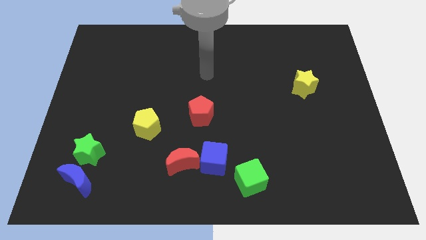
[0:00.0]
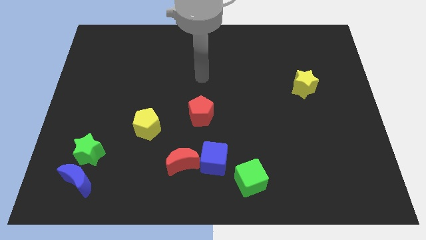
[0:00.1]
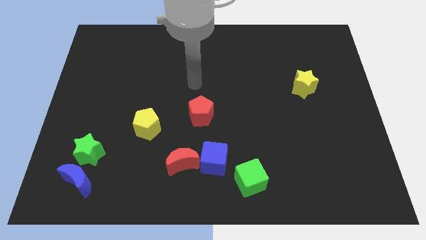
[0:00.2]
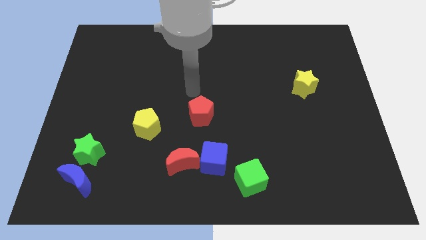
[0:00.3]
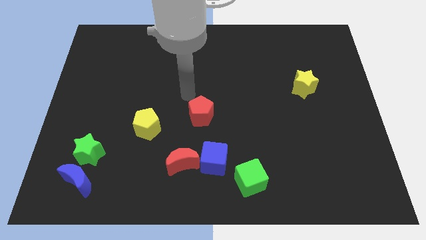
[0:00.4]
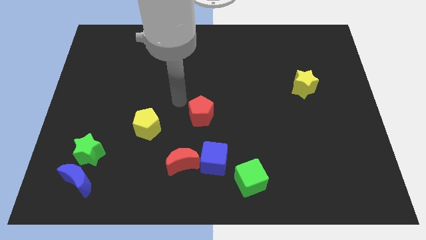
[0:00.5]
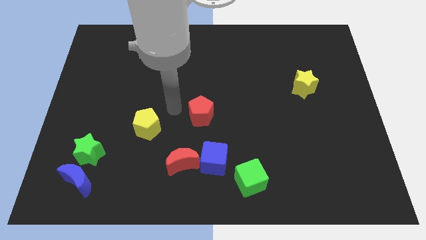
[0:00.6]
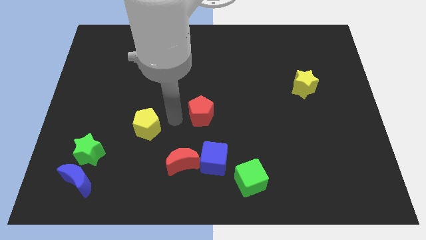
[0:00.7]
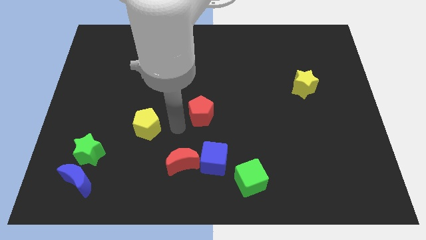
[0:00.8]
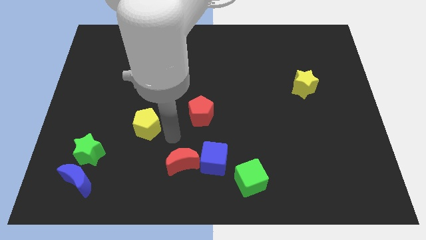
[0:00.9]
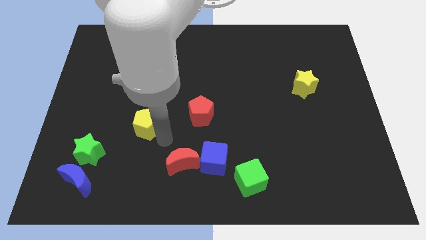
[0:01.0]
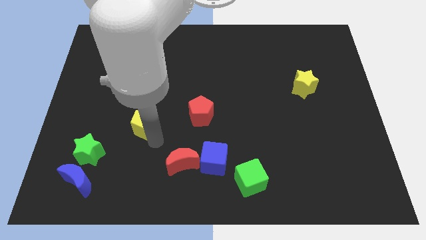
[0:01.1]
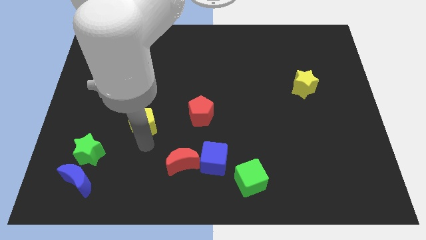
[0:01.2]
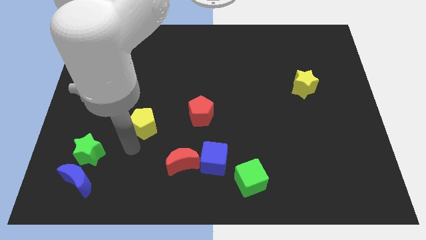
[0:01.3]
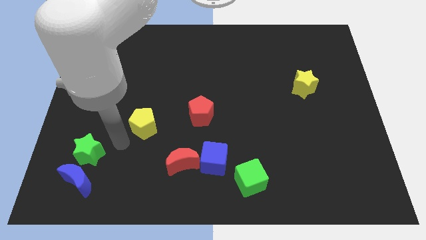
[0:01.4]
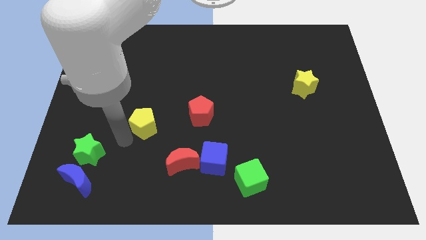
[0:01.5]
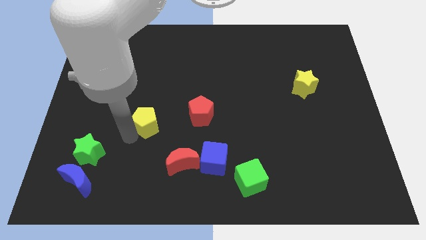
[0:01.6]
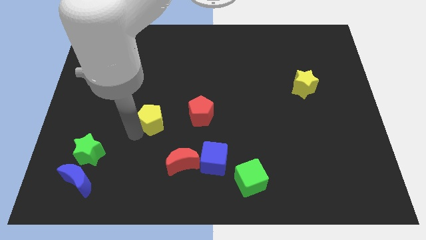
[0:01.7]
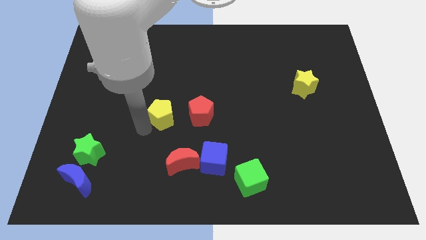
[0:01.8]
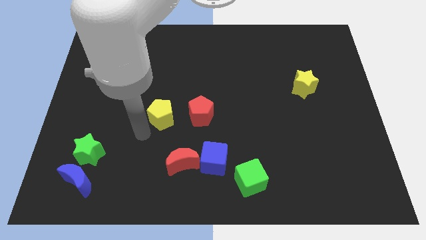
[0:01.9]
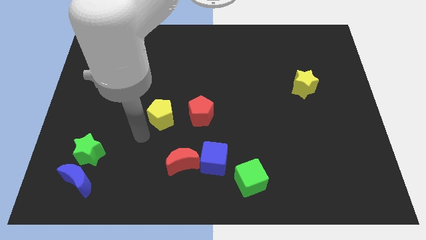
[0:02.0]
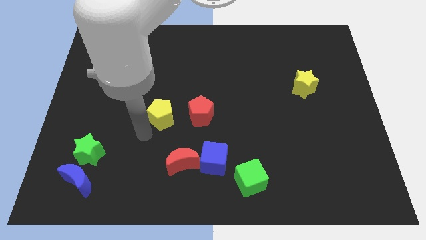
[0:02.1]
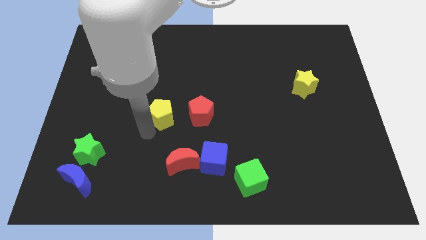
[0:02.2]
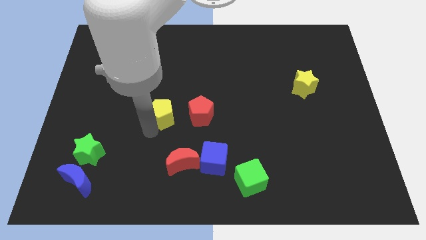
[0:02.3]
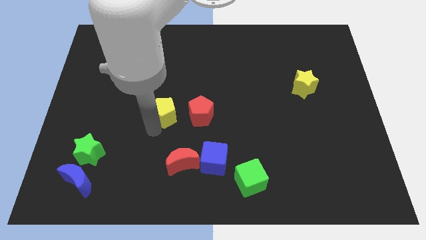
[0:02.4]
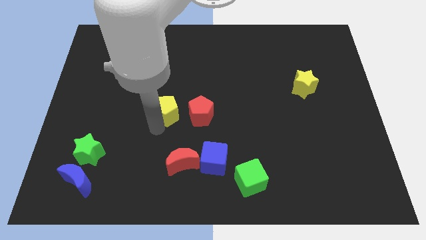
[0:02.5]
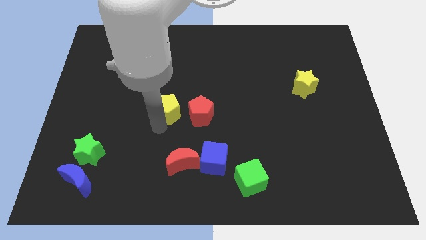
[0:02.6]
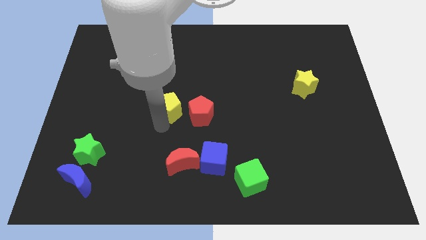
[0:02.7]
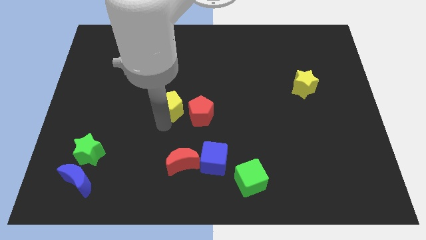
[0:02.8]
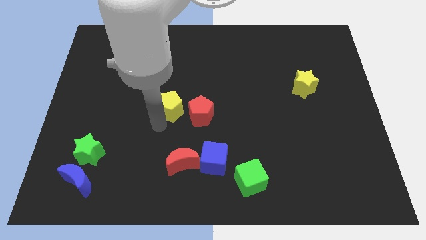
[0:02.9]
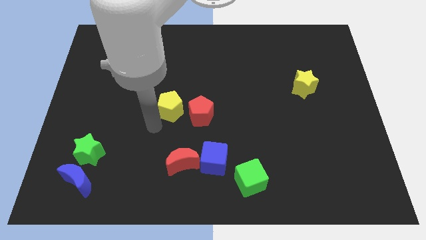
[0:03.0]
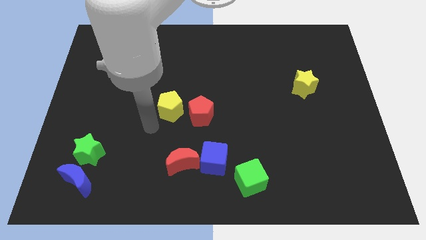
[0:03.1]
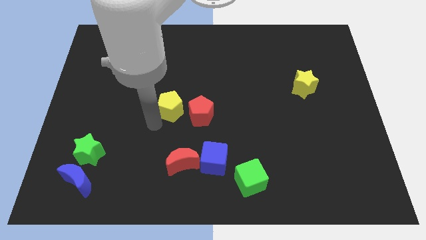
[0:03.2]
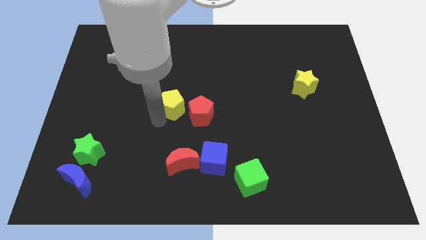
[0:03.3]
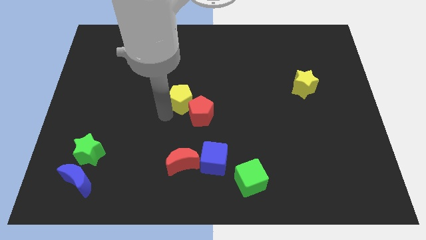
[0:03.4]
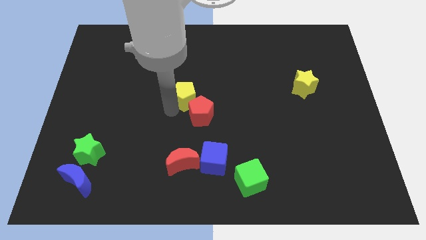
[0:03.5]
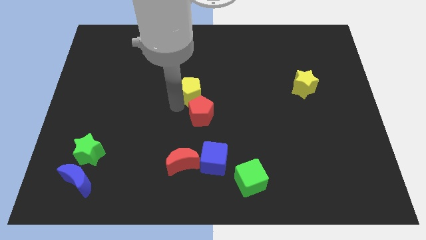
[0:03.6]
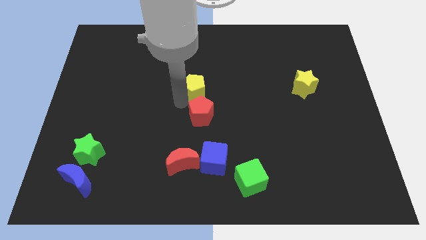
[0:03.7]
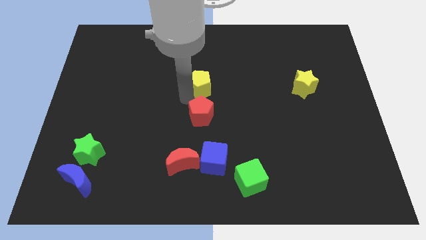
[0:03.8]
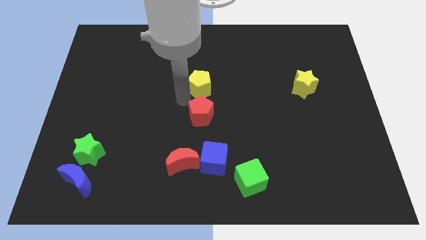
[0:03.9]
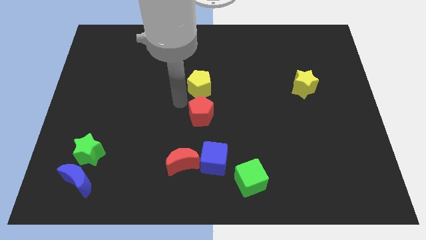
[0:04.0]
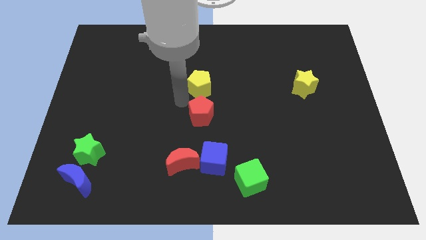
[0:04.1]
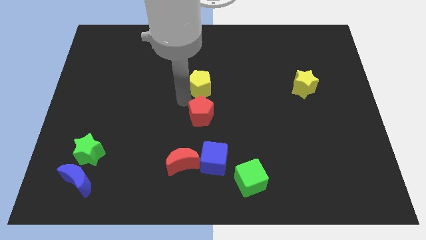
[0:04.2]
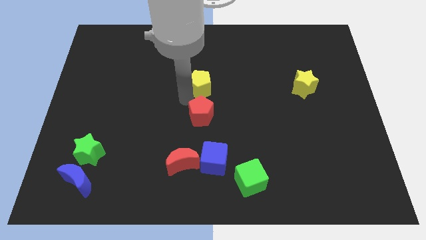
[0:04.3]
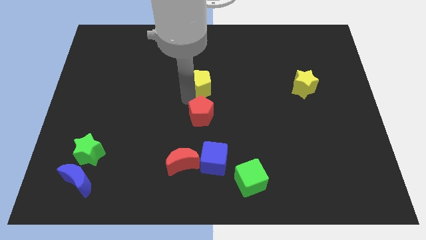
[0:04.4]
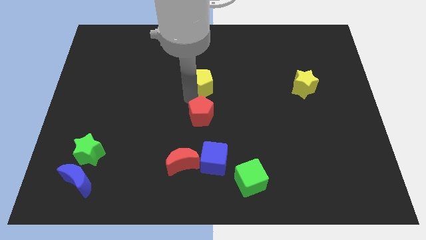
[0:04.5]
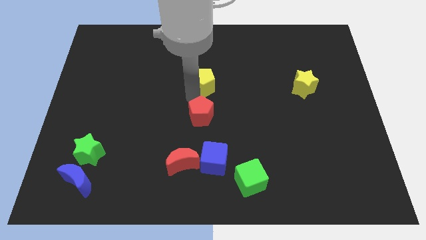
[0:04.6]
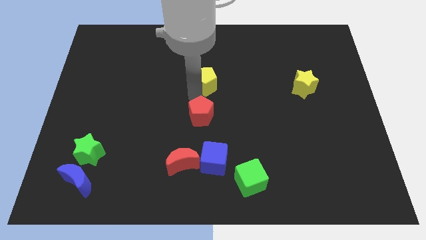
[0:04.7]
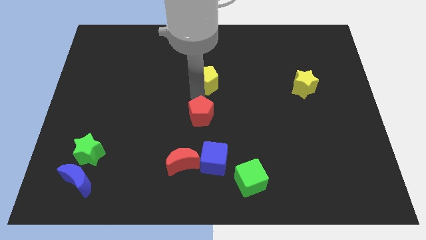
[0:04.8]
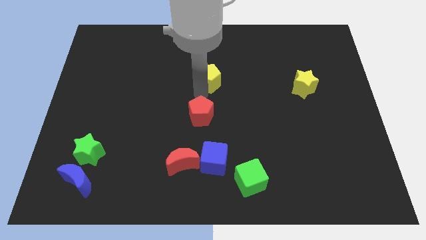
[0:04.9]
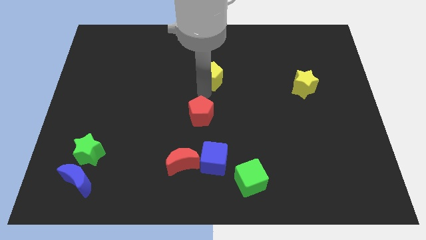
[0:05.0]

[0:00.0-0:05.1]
move the yellow pentagon upwards and then to the right

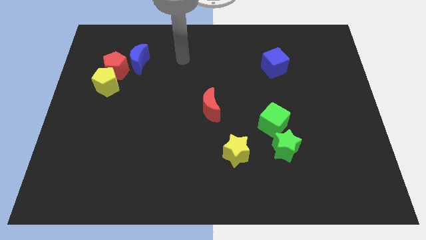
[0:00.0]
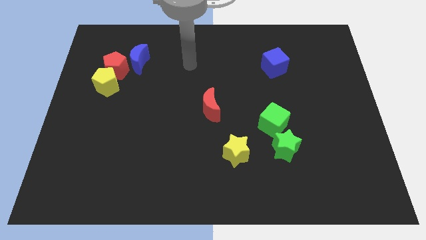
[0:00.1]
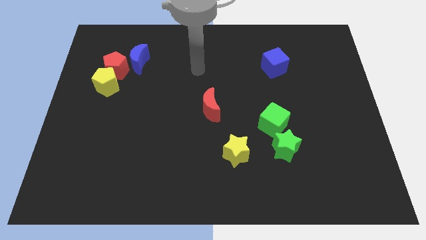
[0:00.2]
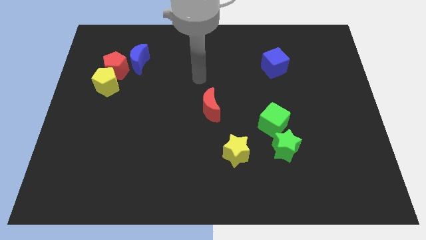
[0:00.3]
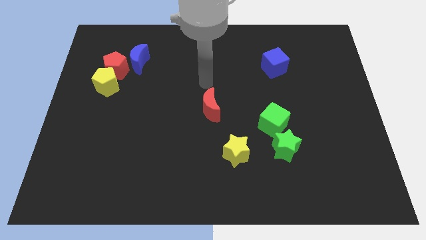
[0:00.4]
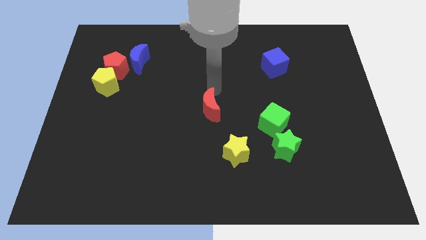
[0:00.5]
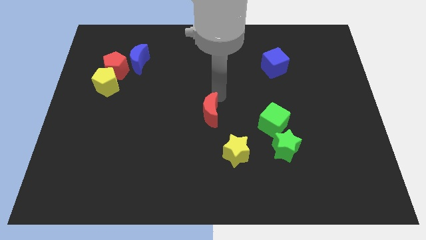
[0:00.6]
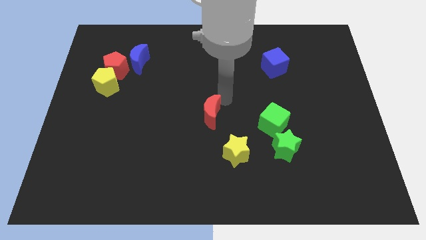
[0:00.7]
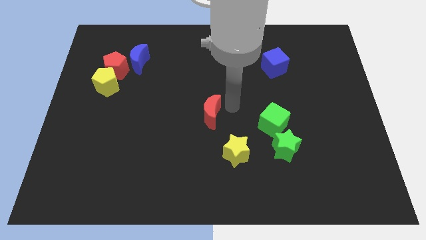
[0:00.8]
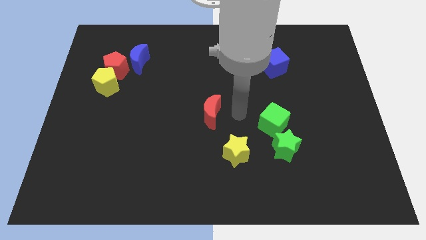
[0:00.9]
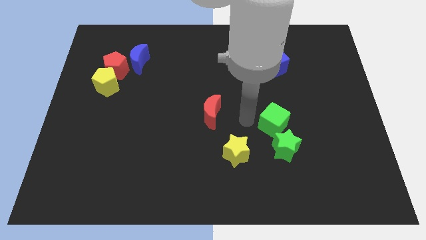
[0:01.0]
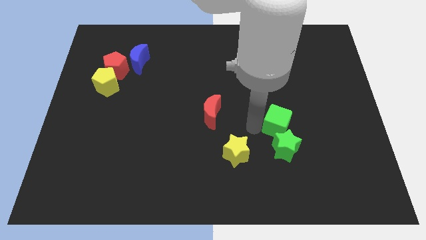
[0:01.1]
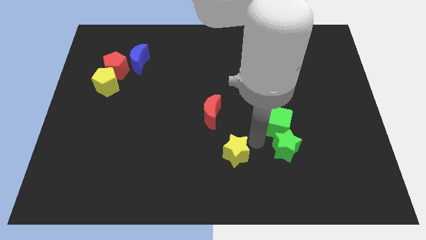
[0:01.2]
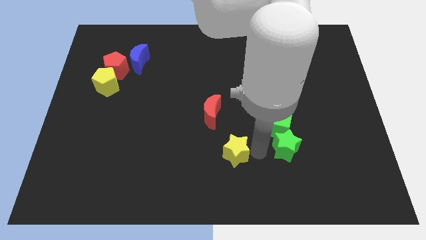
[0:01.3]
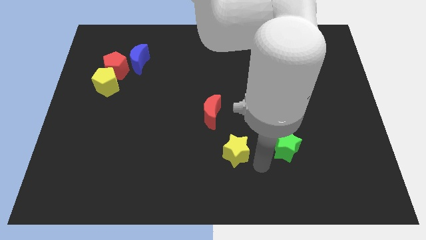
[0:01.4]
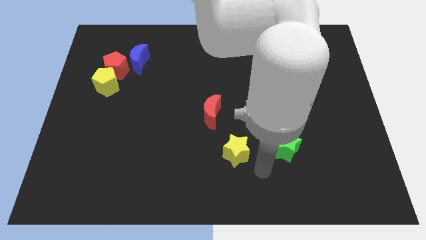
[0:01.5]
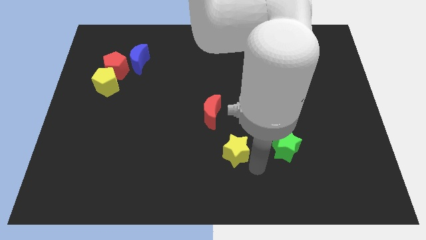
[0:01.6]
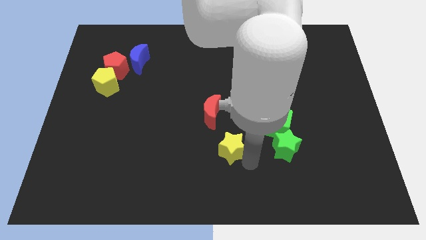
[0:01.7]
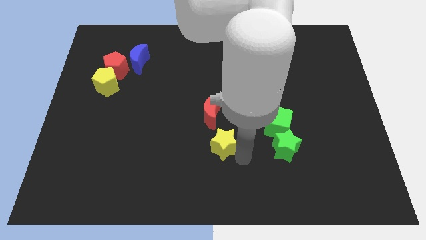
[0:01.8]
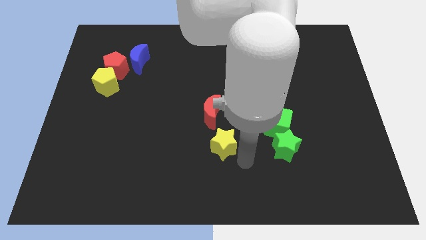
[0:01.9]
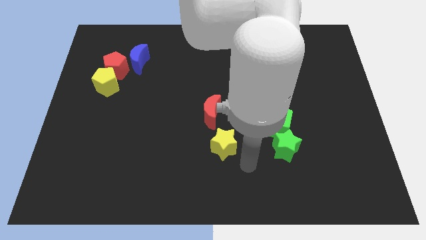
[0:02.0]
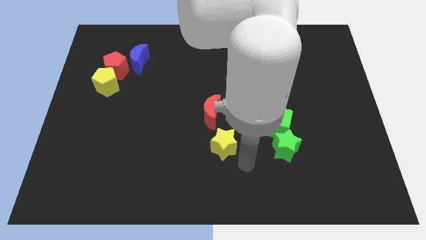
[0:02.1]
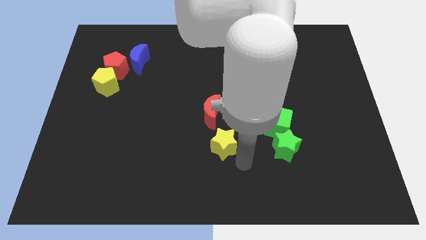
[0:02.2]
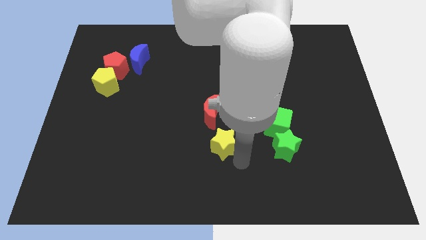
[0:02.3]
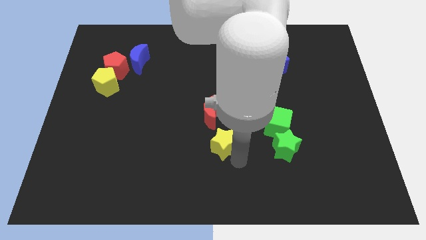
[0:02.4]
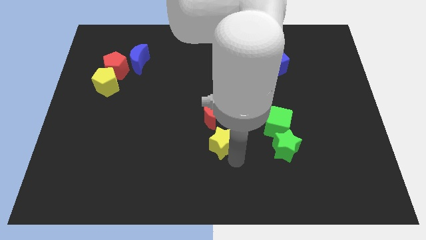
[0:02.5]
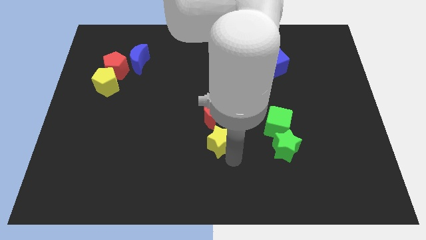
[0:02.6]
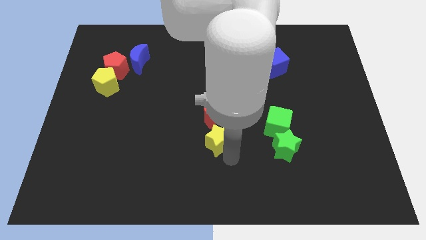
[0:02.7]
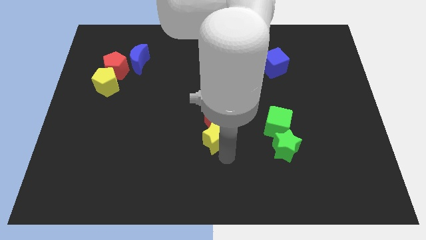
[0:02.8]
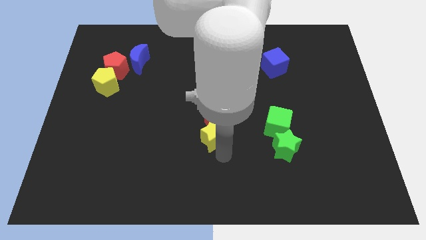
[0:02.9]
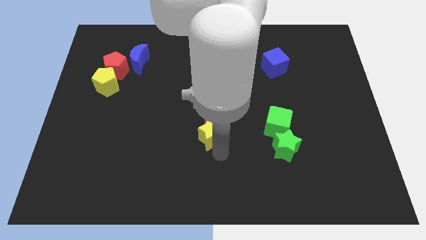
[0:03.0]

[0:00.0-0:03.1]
push the yellow star slightly upwards and left diagonally
